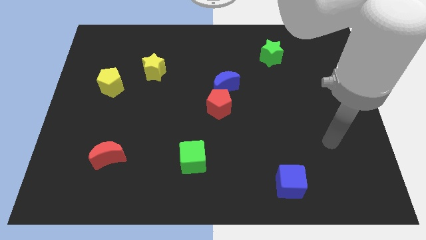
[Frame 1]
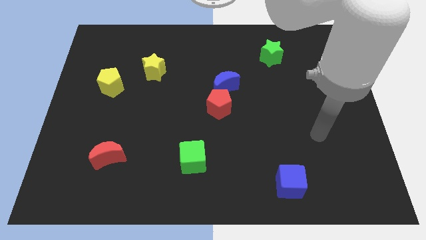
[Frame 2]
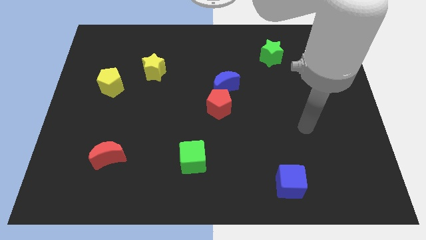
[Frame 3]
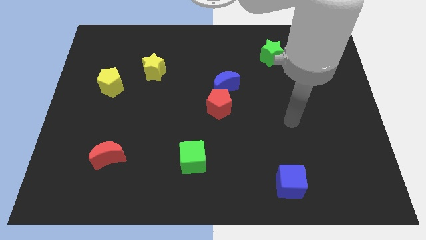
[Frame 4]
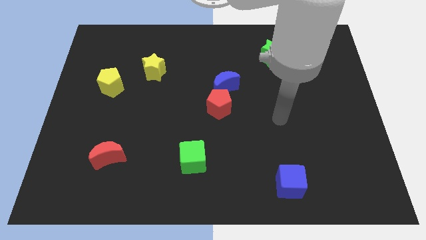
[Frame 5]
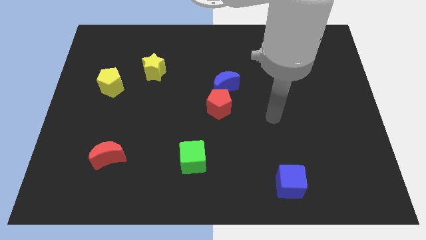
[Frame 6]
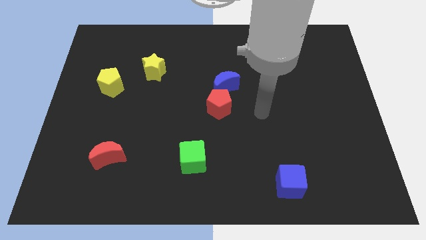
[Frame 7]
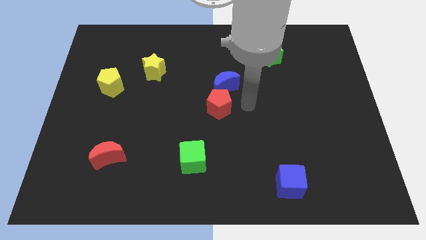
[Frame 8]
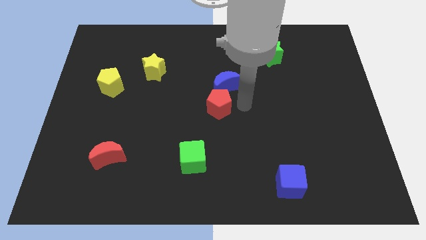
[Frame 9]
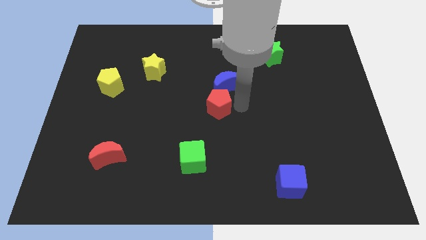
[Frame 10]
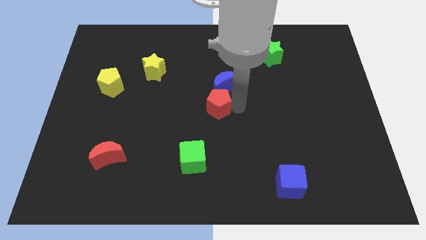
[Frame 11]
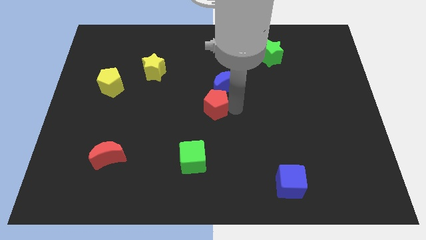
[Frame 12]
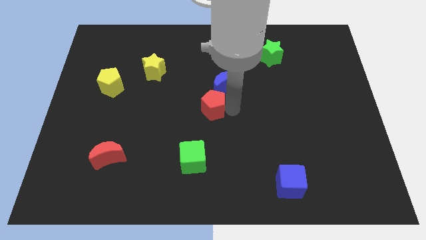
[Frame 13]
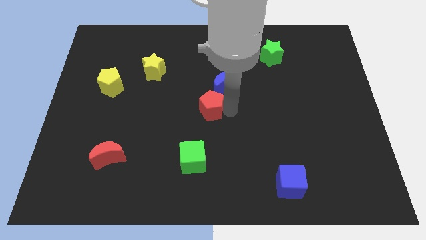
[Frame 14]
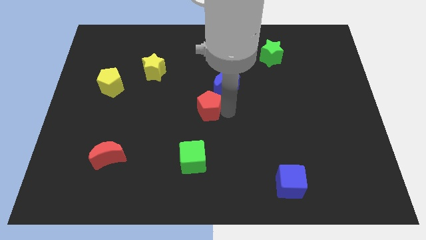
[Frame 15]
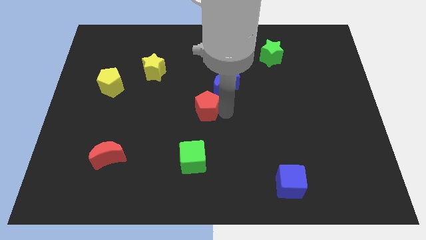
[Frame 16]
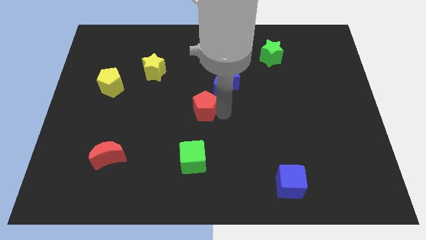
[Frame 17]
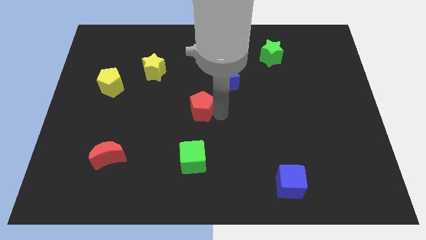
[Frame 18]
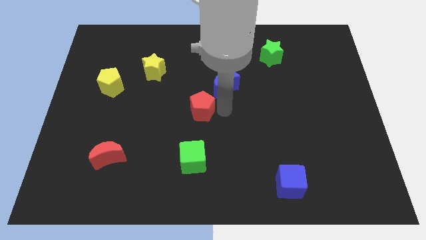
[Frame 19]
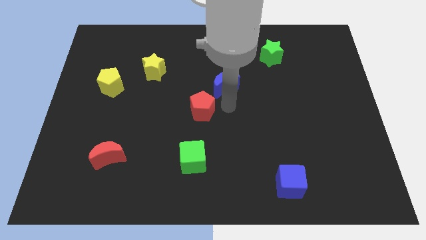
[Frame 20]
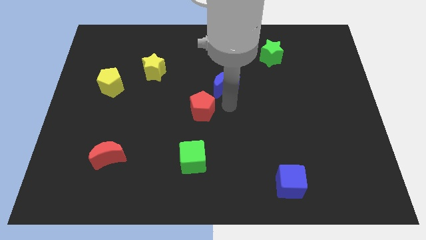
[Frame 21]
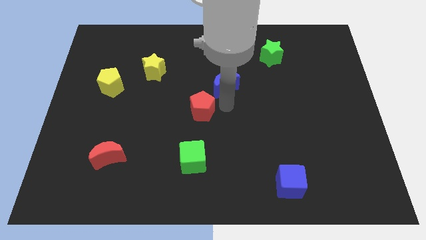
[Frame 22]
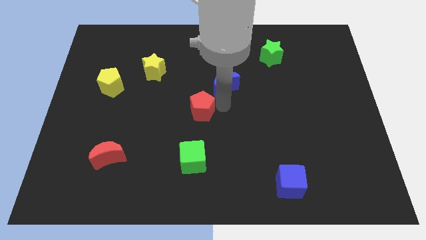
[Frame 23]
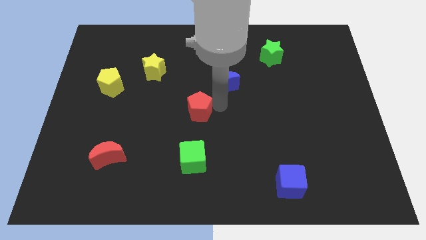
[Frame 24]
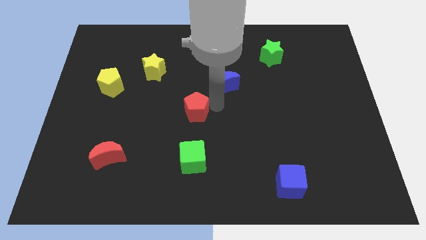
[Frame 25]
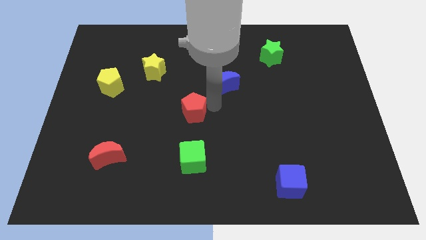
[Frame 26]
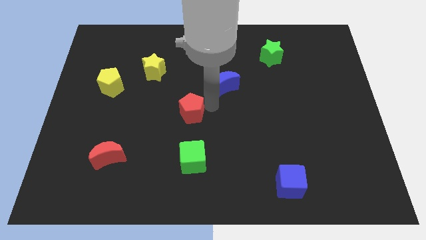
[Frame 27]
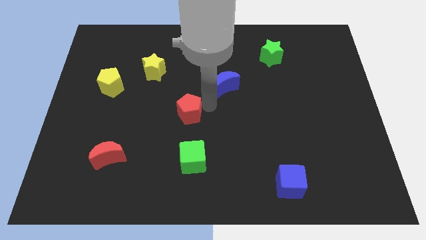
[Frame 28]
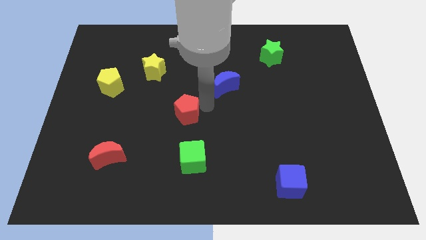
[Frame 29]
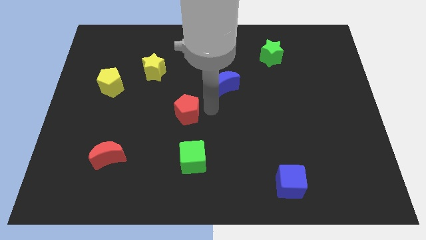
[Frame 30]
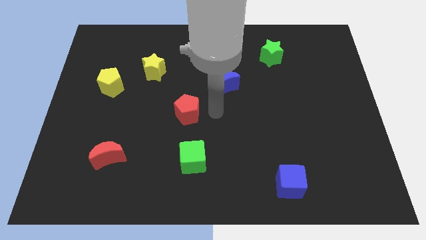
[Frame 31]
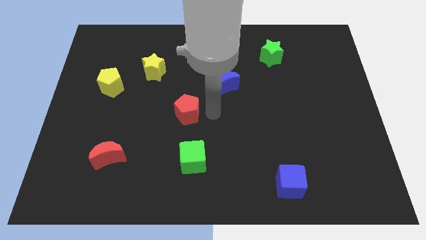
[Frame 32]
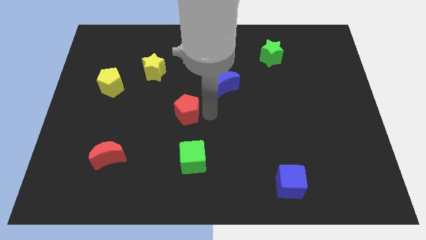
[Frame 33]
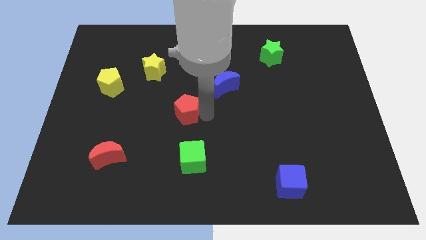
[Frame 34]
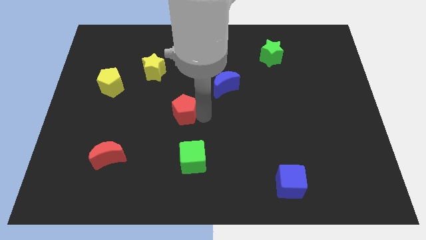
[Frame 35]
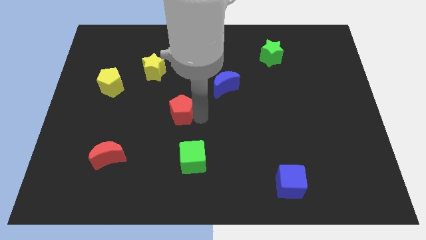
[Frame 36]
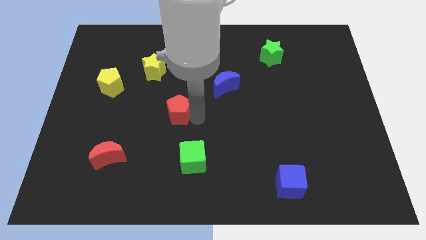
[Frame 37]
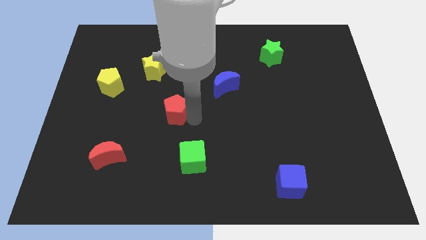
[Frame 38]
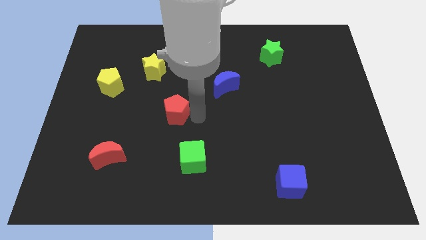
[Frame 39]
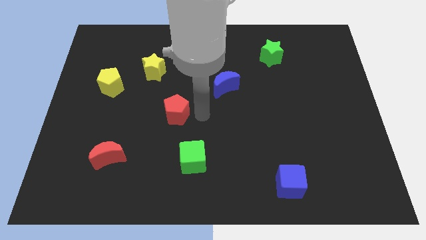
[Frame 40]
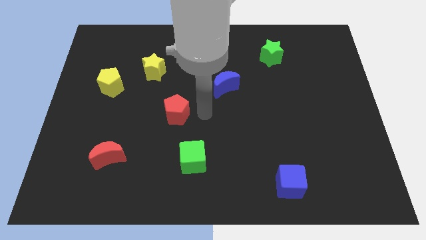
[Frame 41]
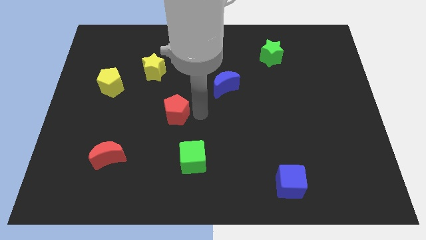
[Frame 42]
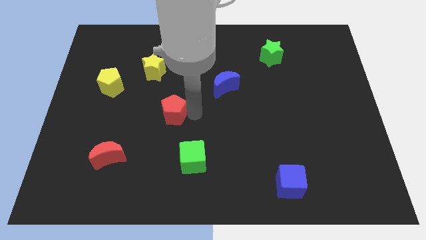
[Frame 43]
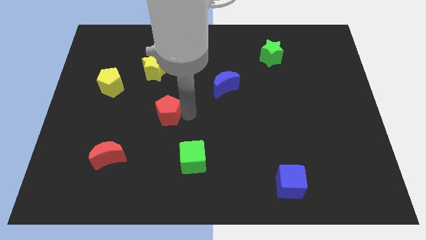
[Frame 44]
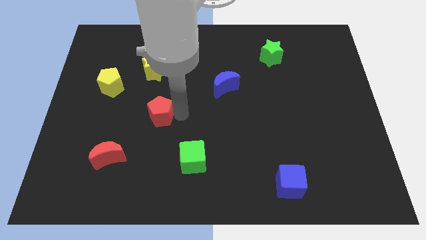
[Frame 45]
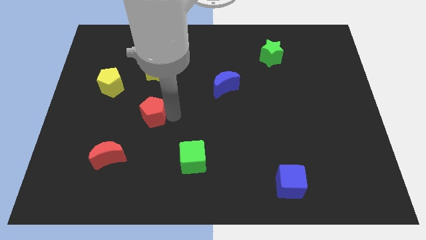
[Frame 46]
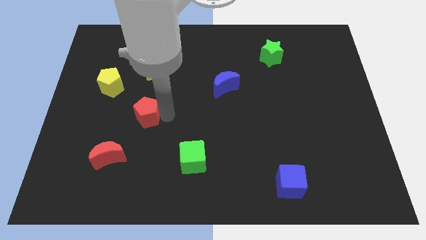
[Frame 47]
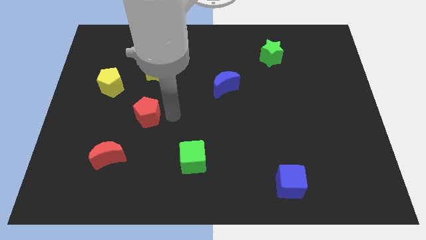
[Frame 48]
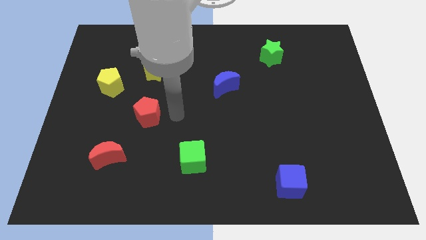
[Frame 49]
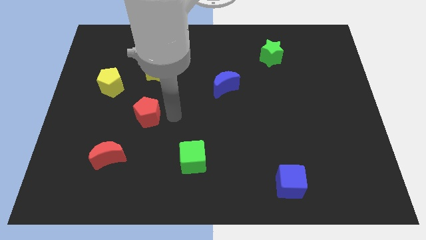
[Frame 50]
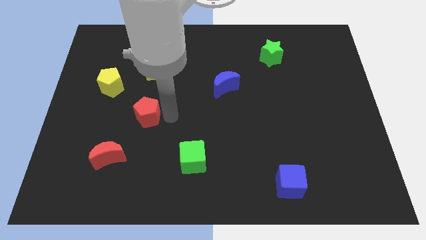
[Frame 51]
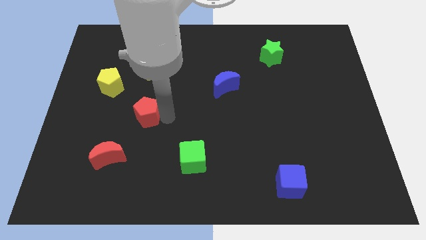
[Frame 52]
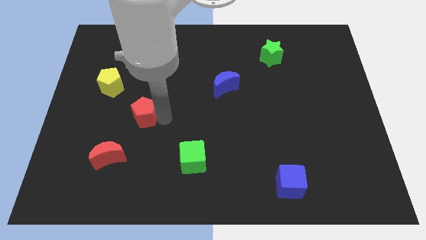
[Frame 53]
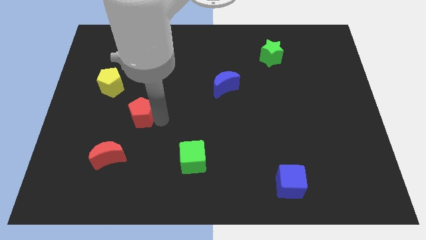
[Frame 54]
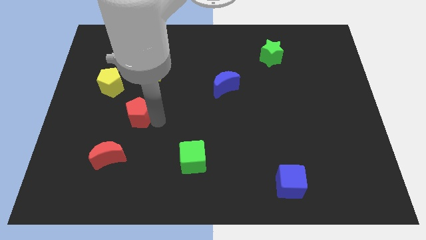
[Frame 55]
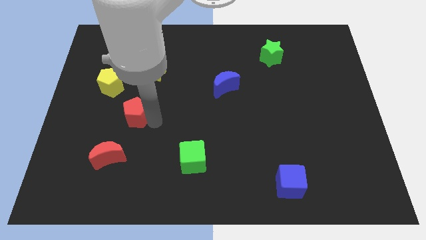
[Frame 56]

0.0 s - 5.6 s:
put the red pentagon to the top side of the red moon

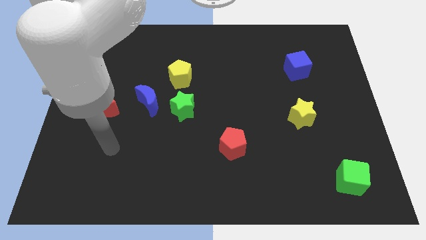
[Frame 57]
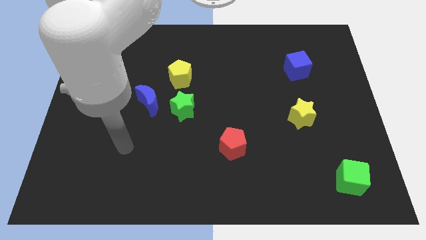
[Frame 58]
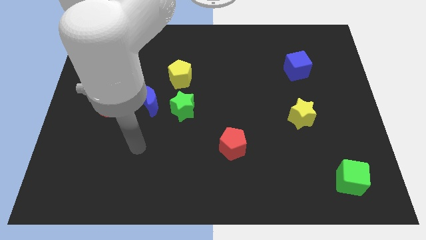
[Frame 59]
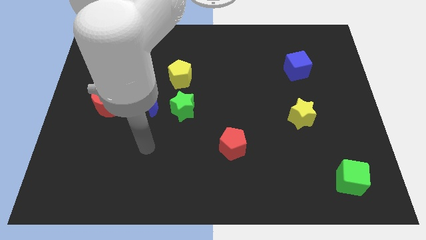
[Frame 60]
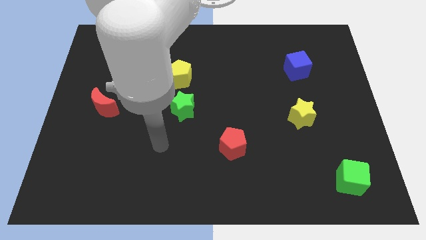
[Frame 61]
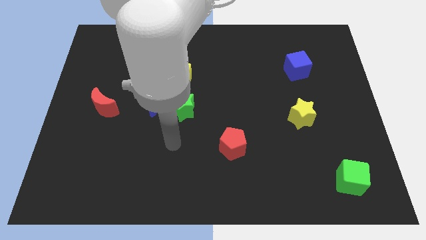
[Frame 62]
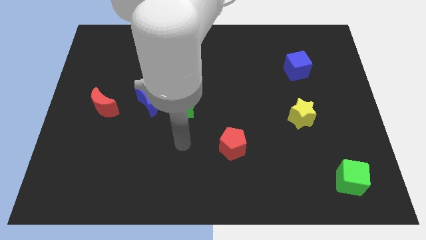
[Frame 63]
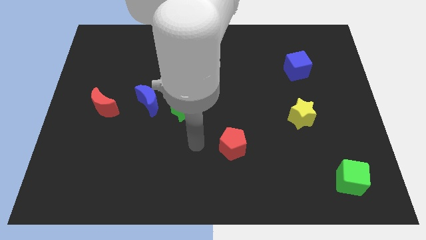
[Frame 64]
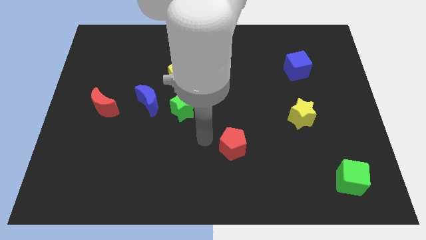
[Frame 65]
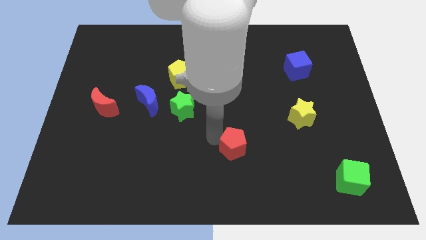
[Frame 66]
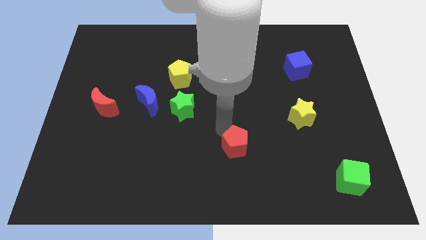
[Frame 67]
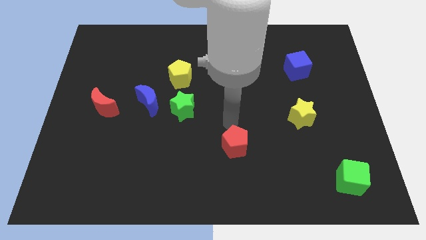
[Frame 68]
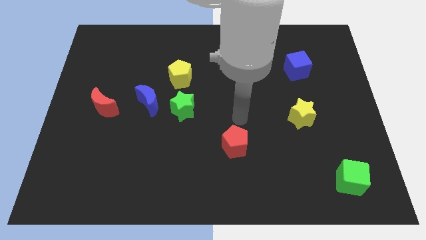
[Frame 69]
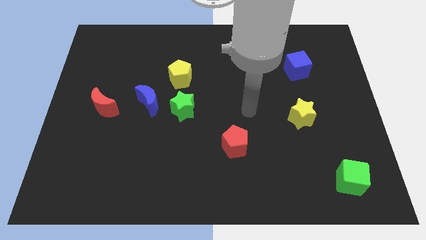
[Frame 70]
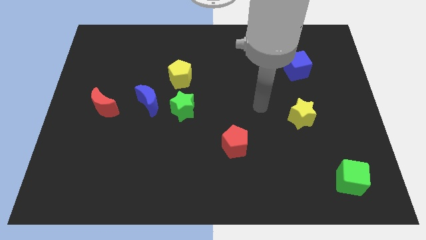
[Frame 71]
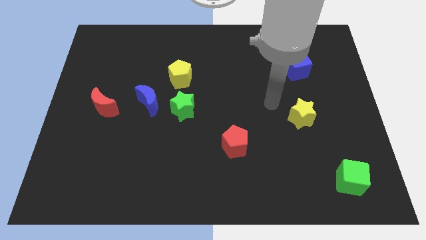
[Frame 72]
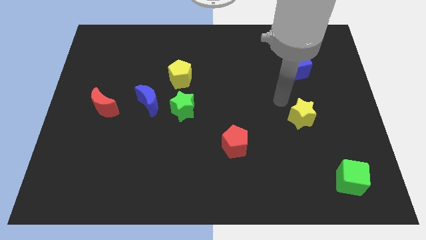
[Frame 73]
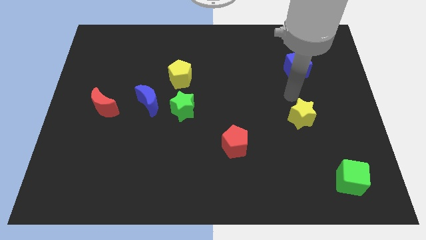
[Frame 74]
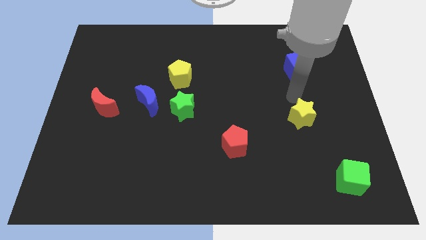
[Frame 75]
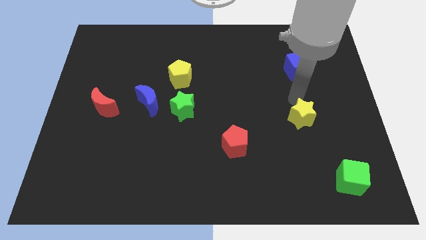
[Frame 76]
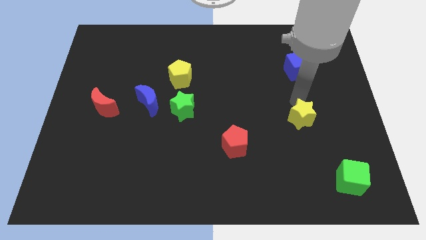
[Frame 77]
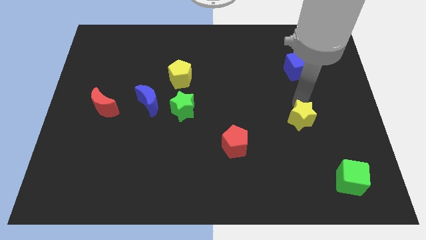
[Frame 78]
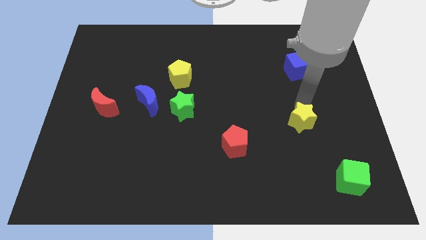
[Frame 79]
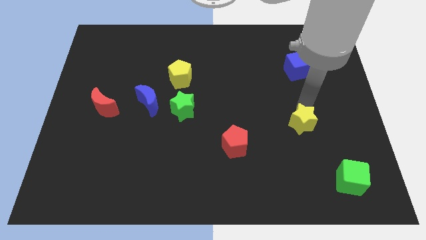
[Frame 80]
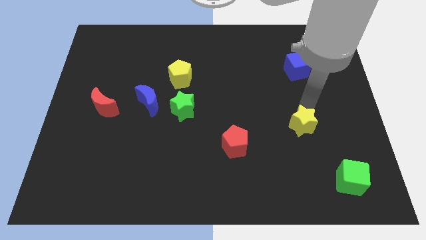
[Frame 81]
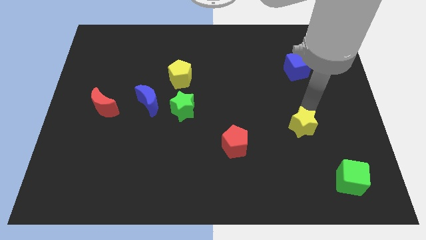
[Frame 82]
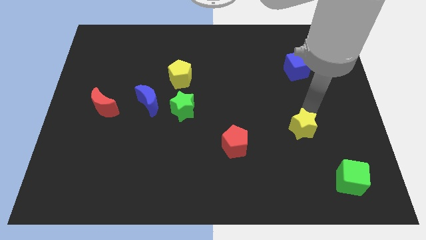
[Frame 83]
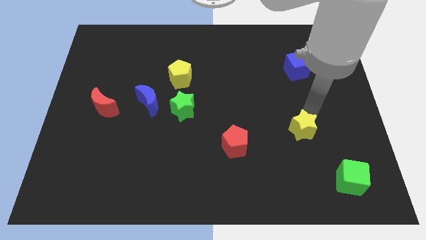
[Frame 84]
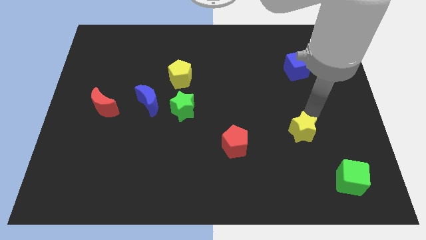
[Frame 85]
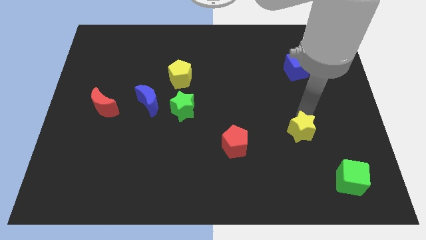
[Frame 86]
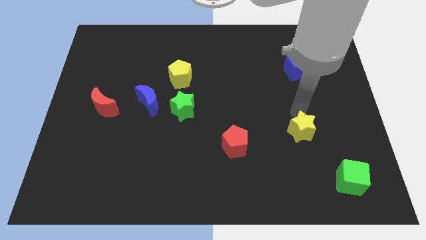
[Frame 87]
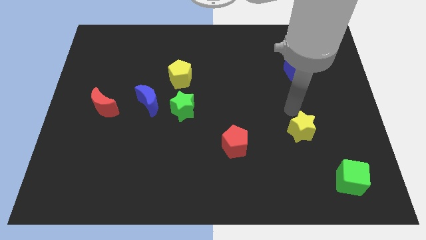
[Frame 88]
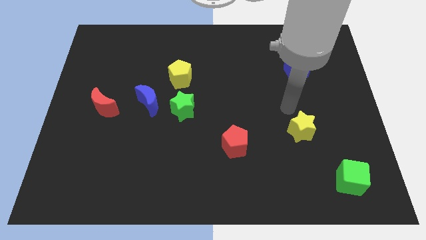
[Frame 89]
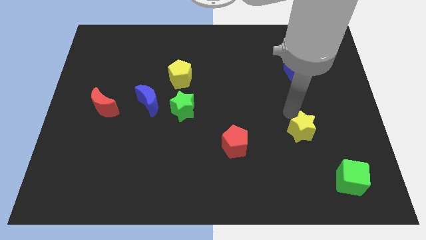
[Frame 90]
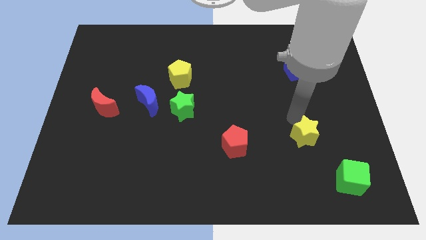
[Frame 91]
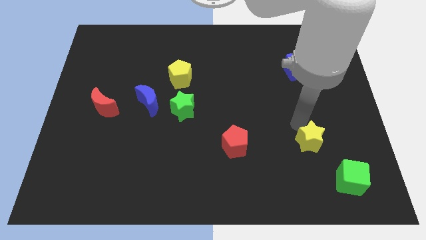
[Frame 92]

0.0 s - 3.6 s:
push the yellow star to the top left of the green cube
